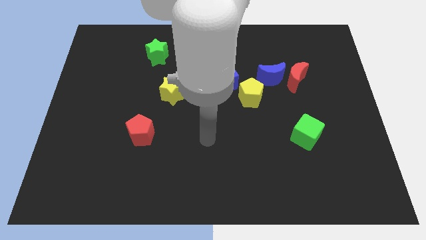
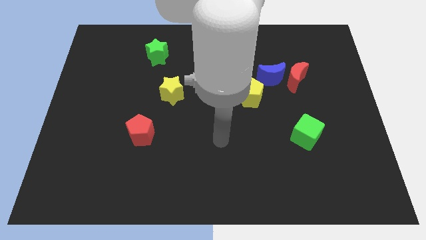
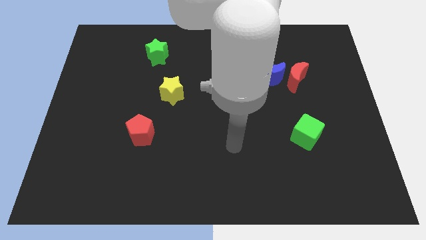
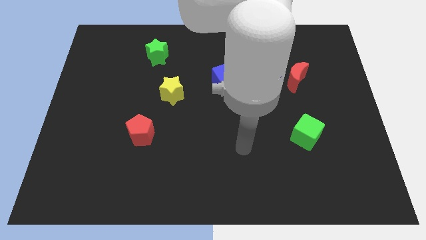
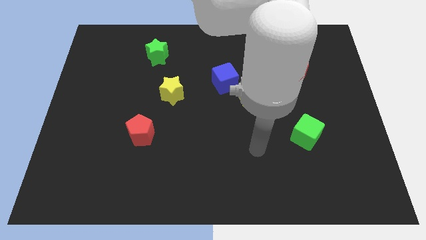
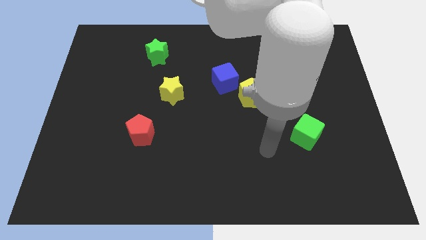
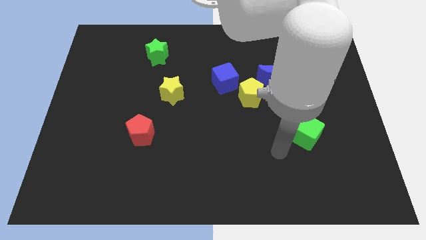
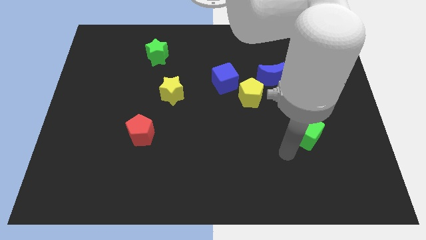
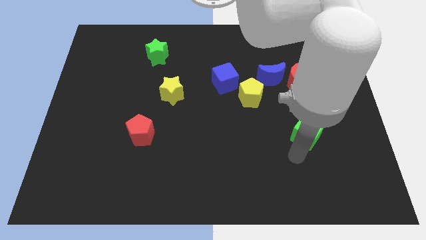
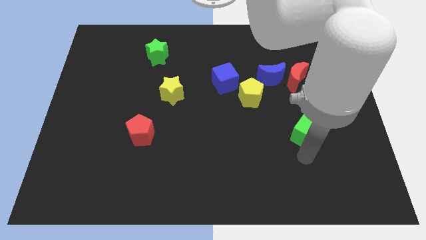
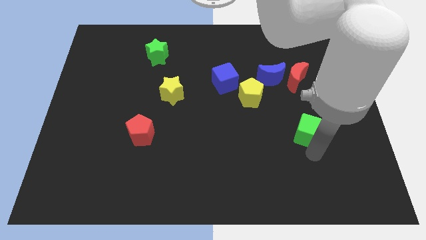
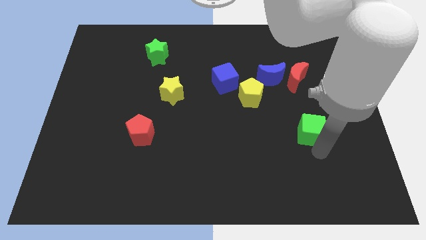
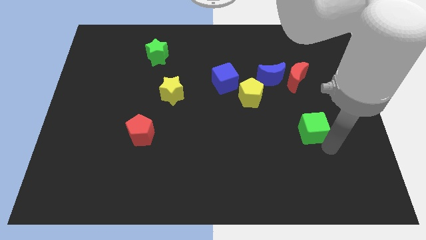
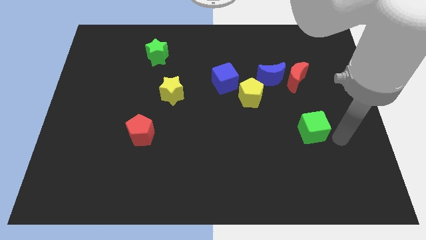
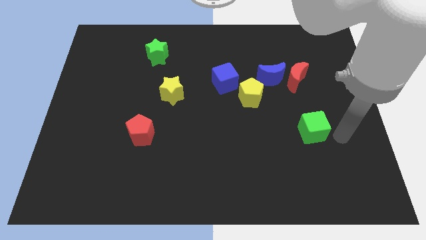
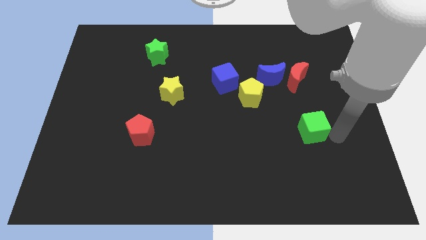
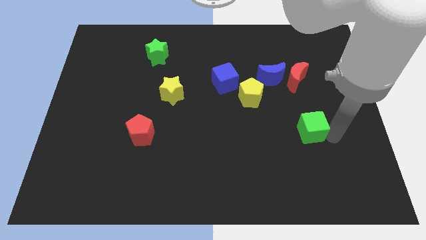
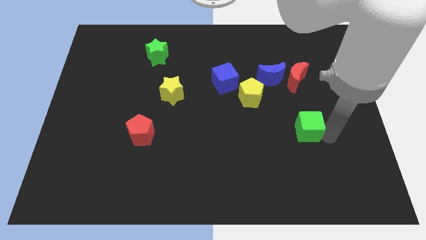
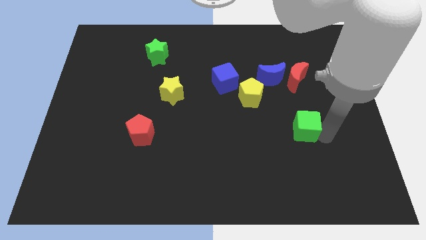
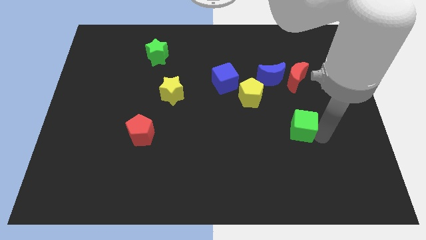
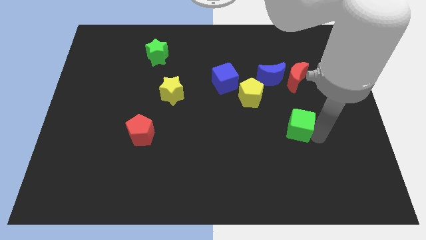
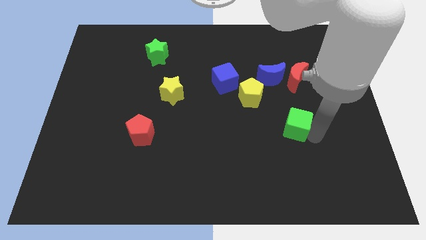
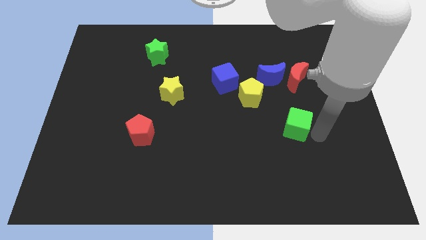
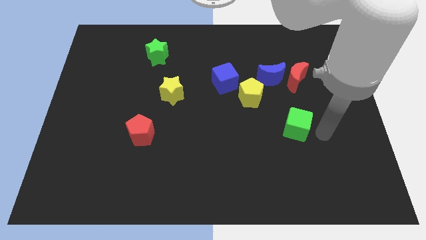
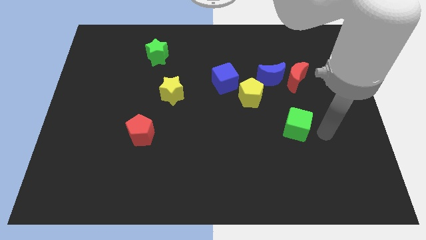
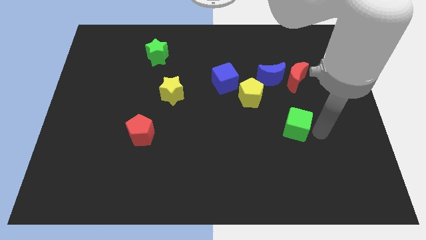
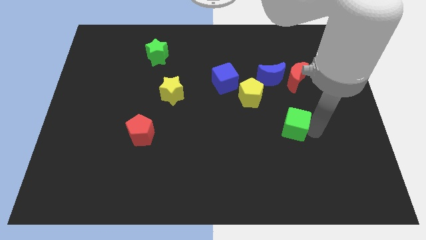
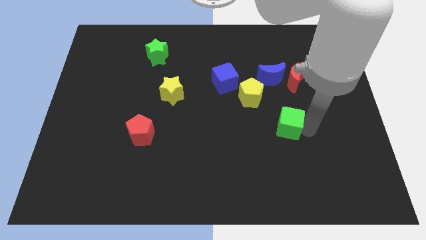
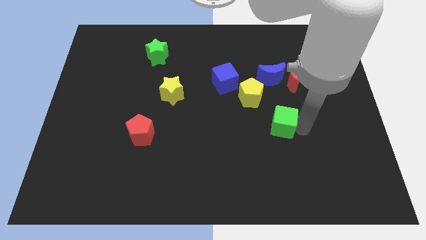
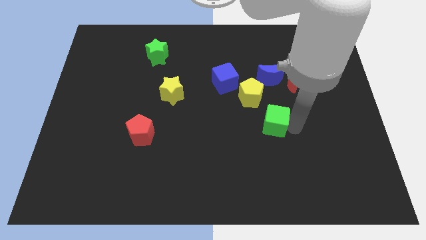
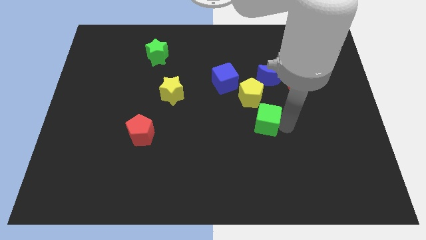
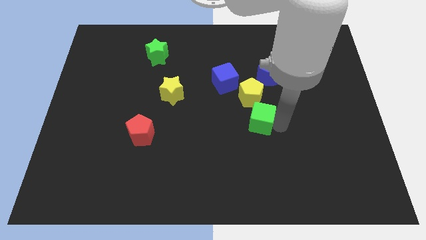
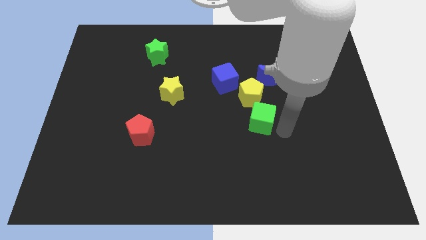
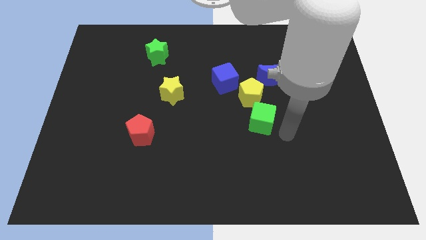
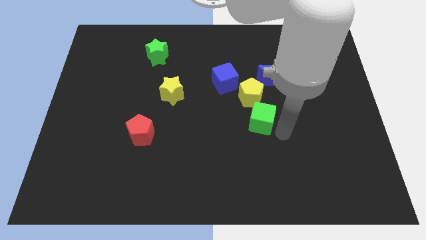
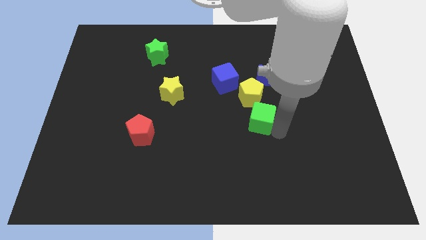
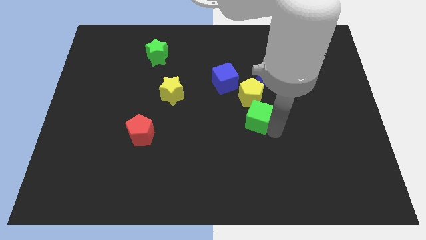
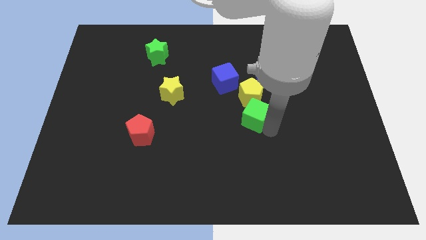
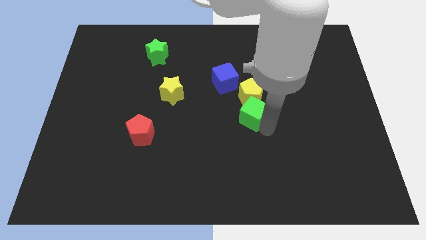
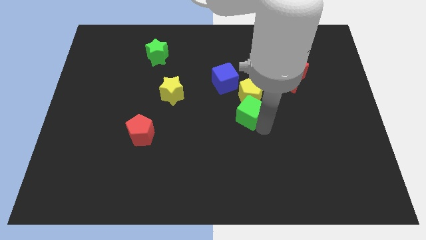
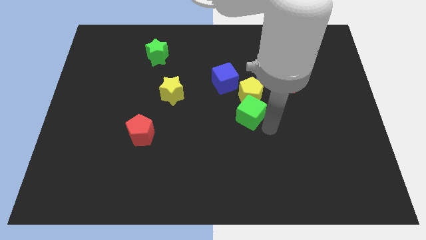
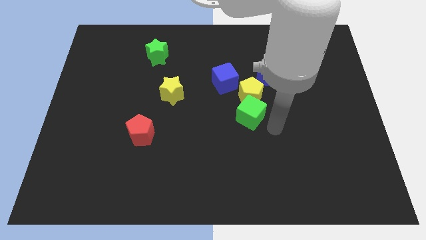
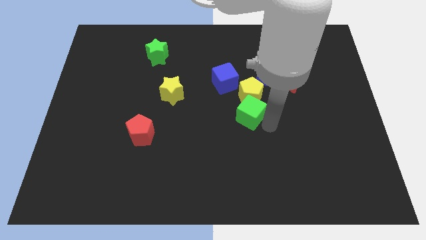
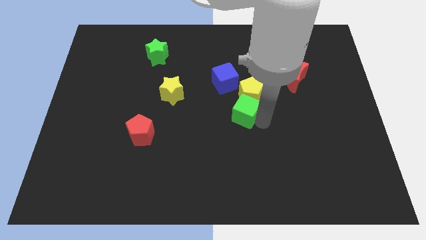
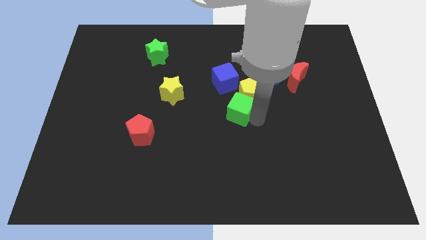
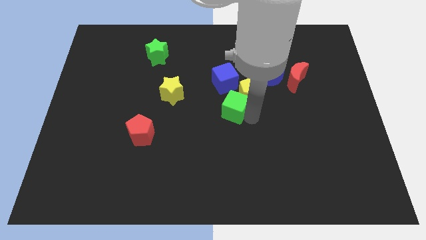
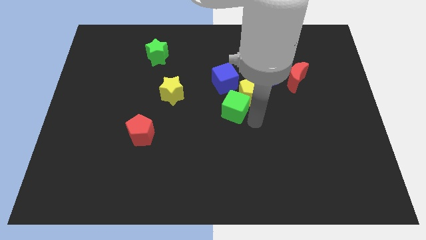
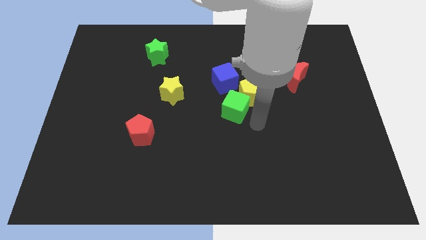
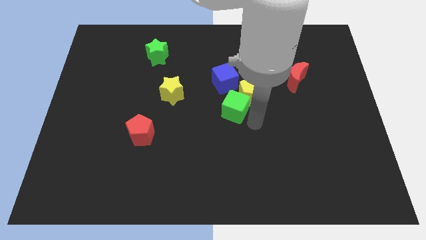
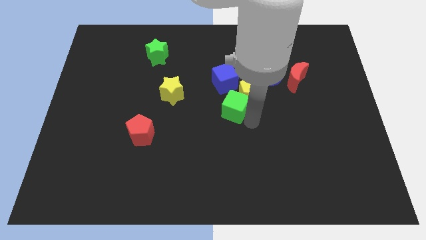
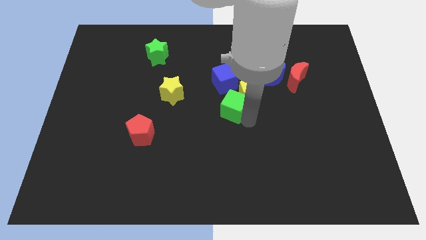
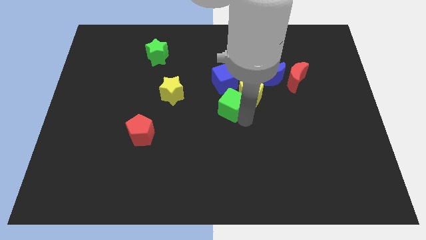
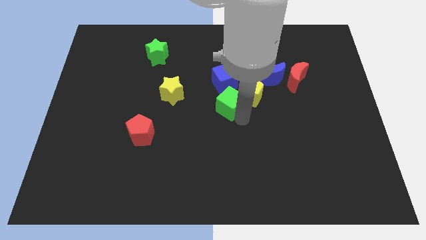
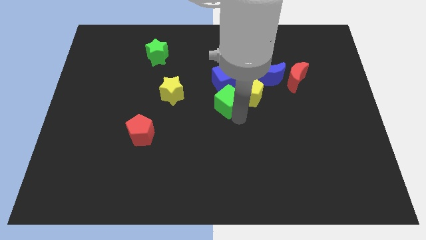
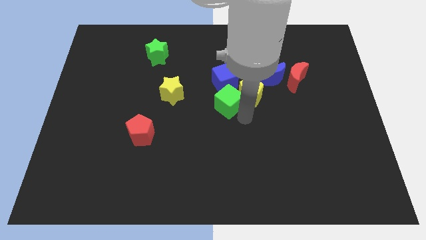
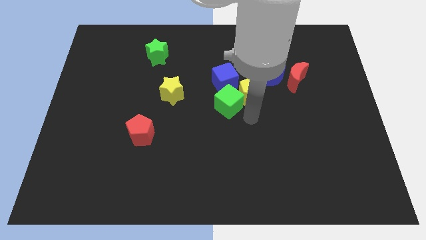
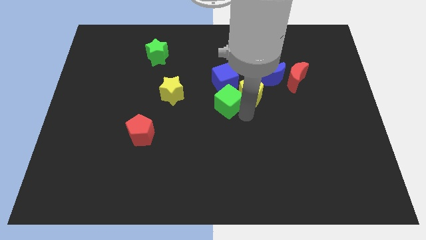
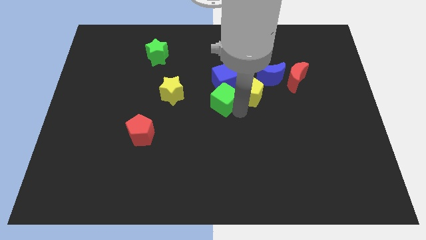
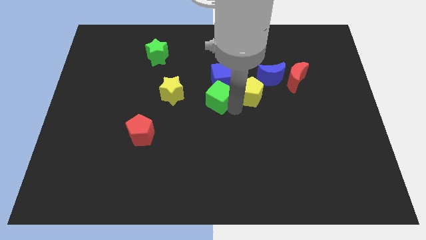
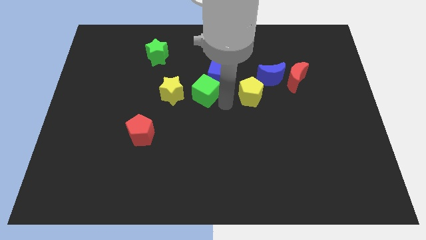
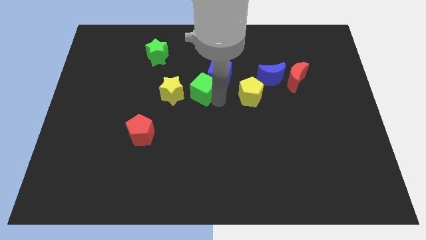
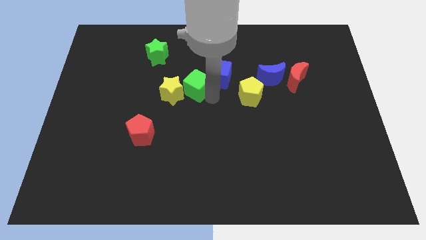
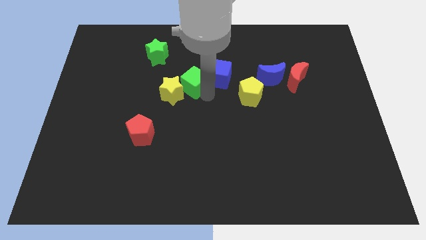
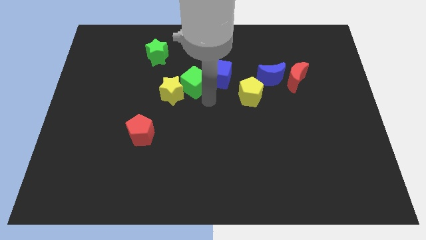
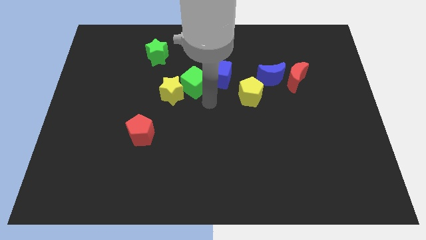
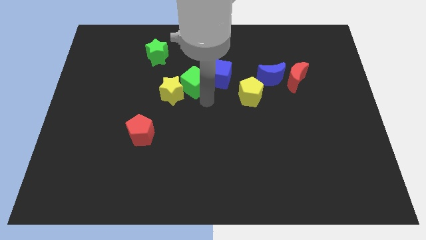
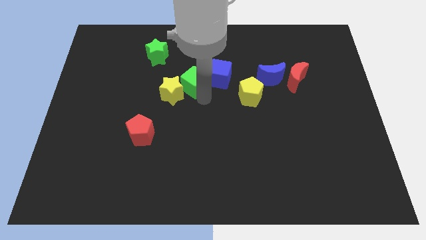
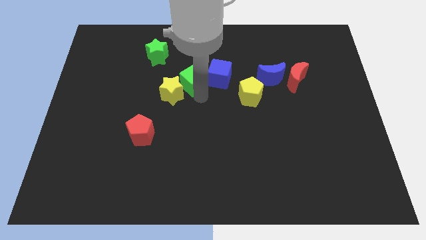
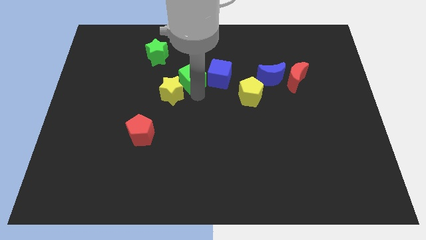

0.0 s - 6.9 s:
slide the green cube above the yellow star

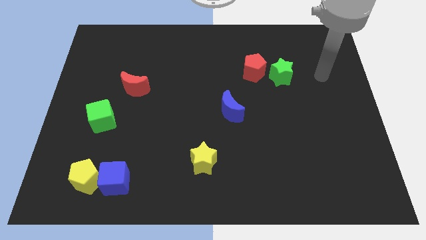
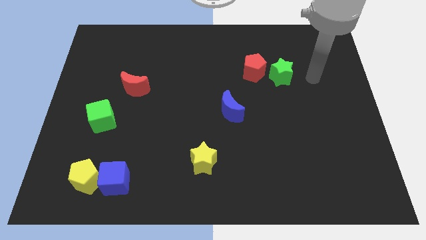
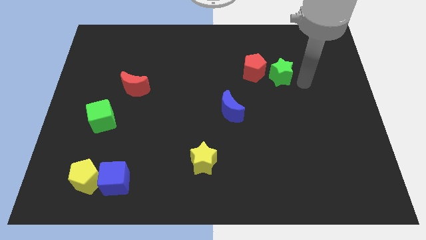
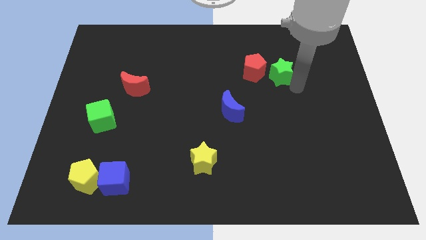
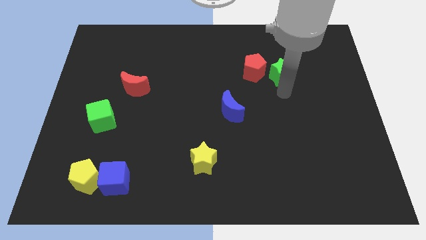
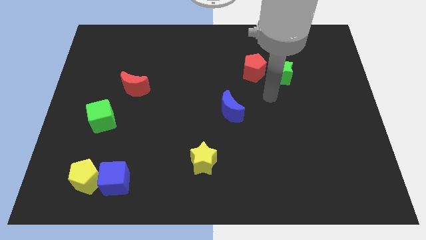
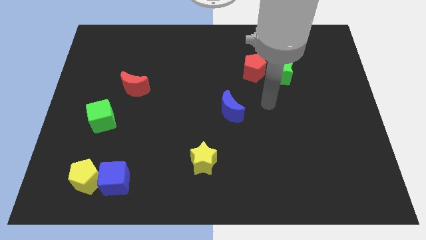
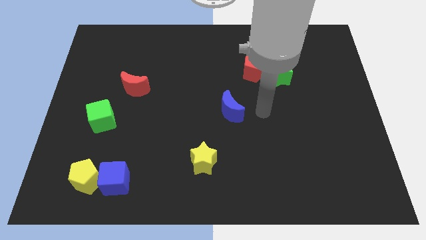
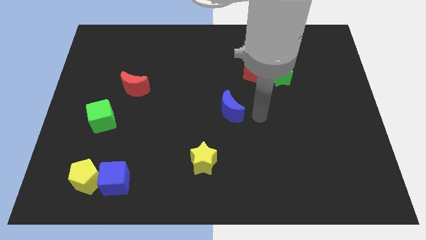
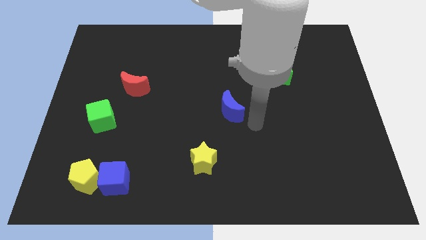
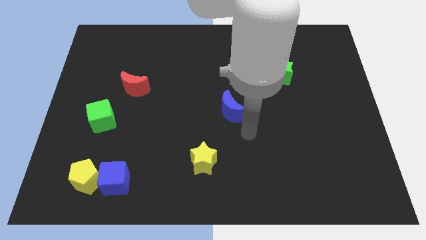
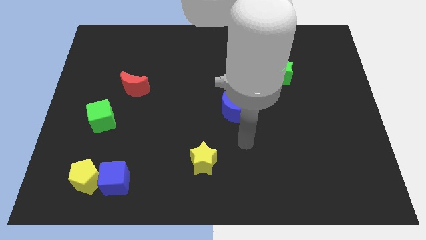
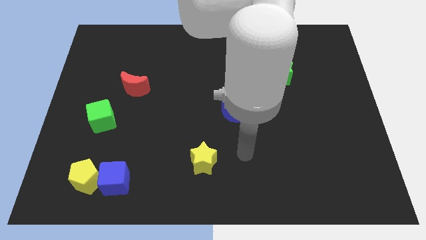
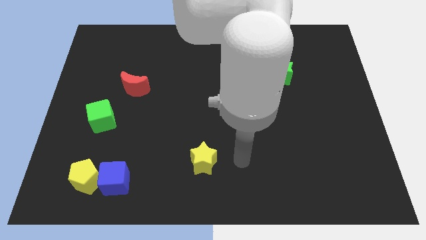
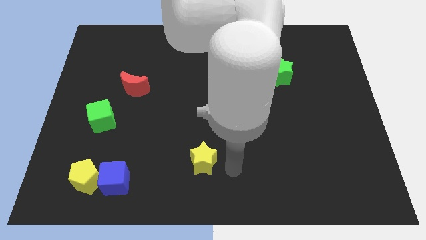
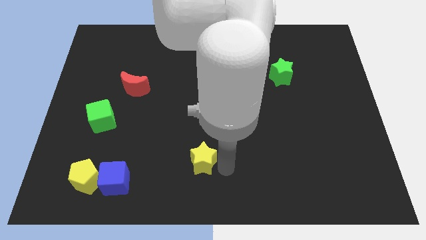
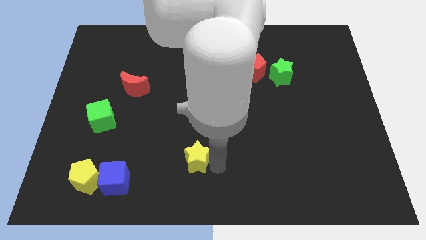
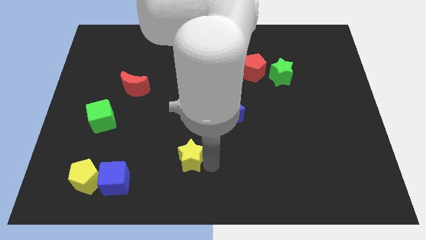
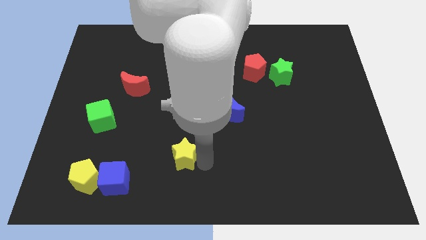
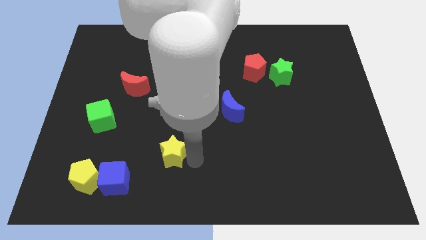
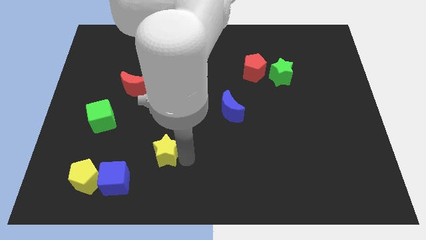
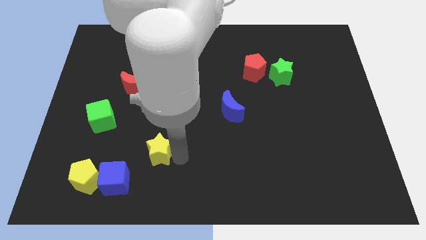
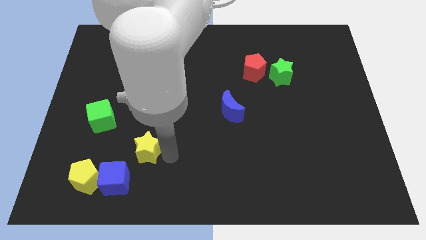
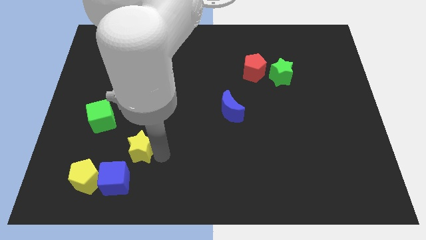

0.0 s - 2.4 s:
push the yellow star above the blue cube
